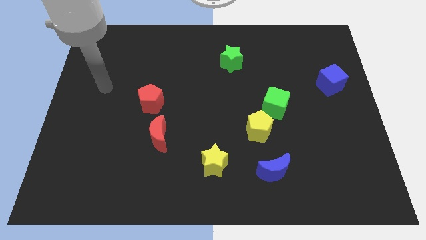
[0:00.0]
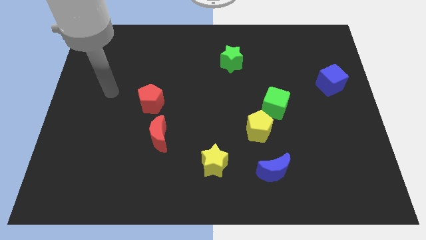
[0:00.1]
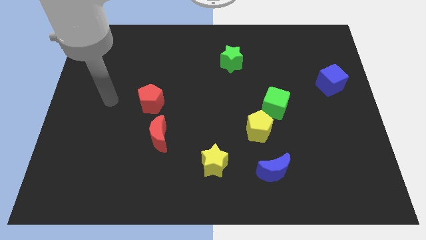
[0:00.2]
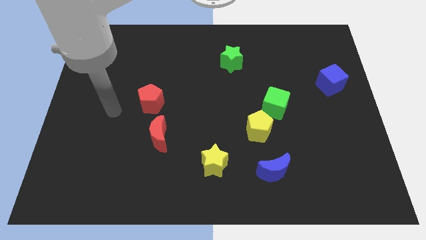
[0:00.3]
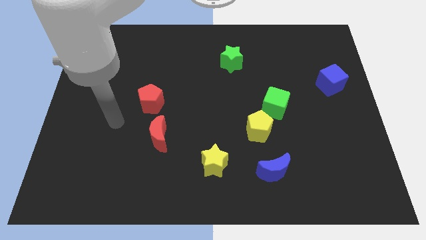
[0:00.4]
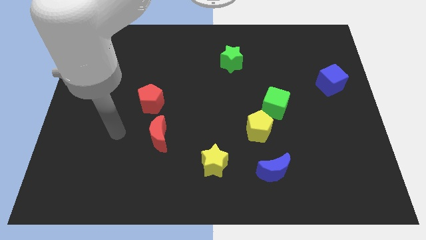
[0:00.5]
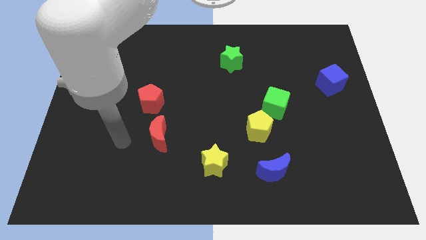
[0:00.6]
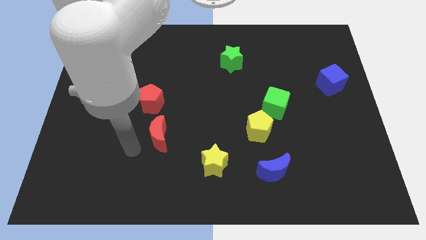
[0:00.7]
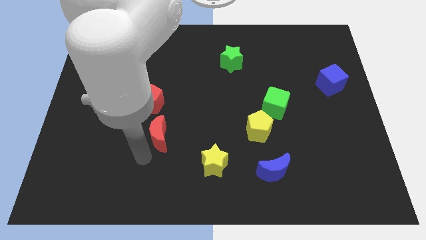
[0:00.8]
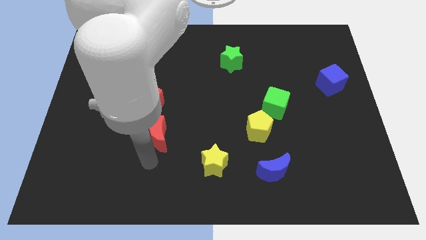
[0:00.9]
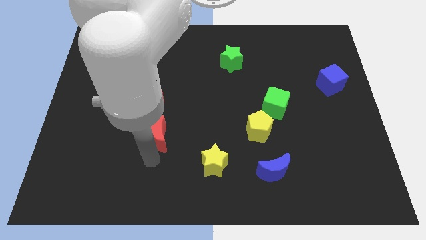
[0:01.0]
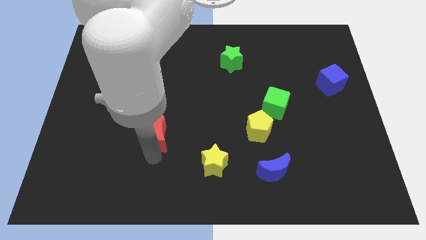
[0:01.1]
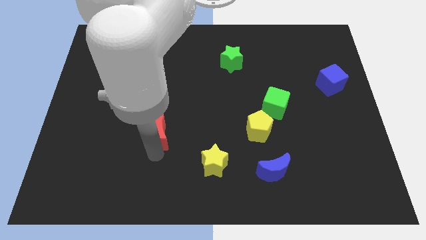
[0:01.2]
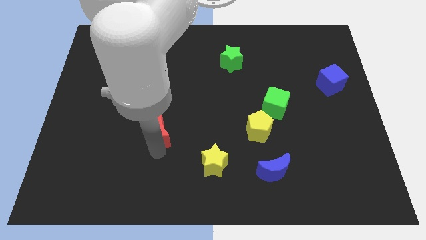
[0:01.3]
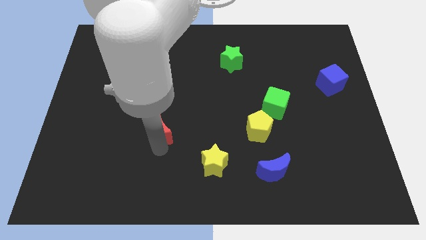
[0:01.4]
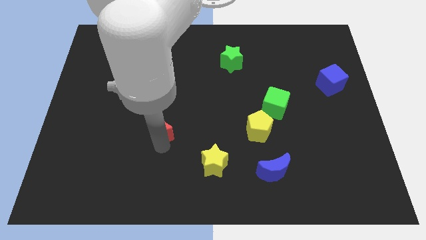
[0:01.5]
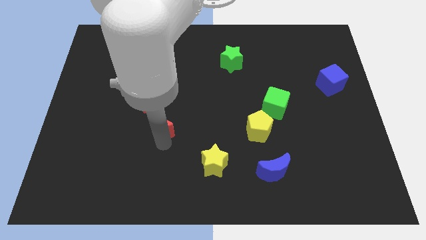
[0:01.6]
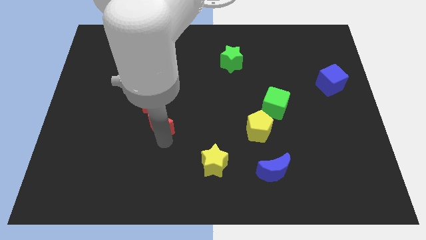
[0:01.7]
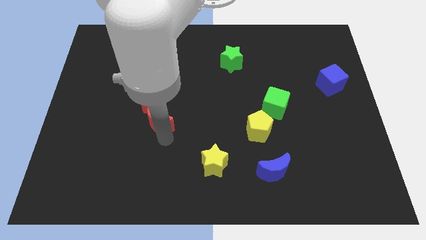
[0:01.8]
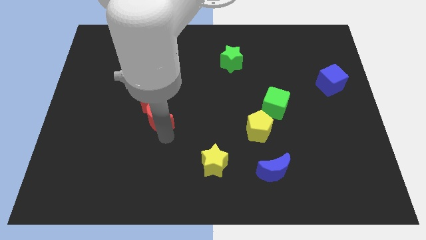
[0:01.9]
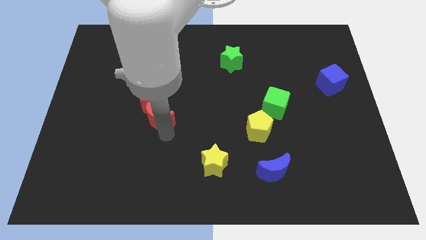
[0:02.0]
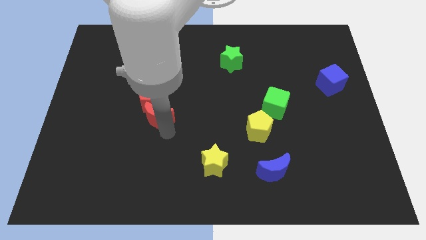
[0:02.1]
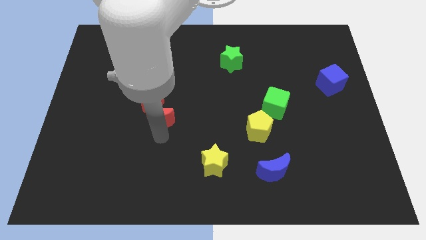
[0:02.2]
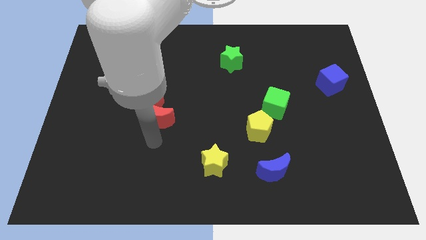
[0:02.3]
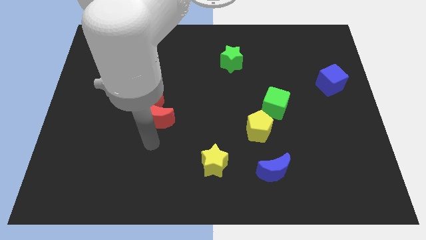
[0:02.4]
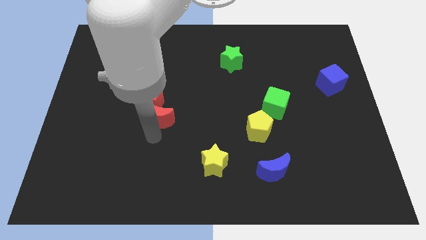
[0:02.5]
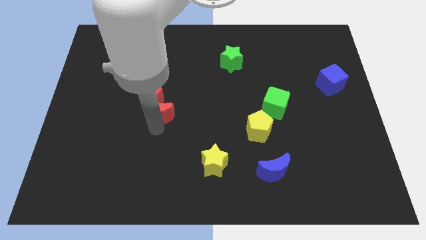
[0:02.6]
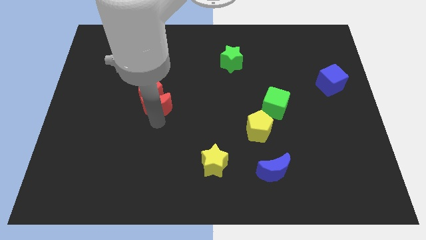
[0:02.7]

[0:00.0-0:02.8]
slide the red moon upwards slightly

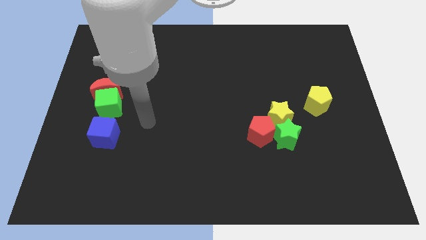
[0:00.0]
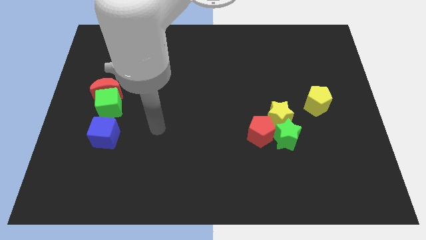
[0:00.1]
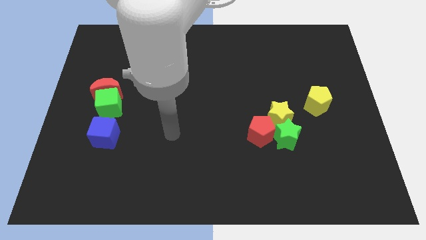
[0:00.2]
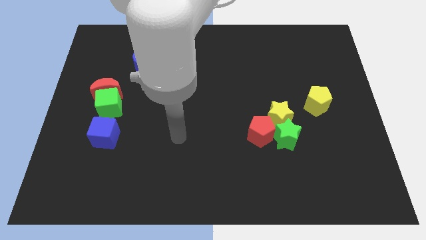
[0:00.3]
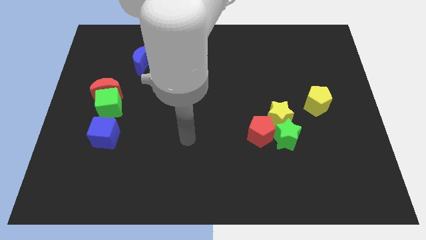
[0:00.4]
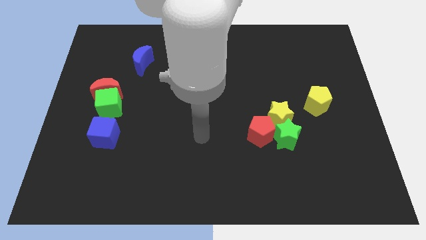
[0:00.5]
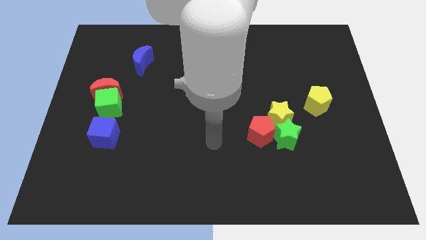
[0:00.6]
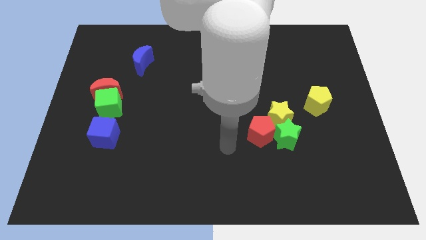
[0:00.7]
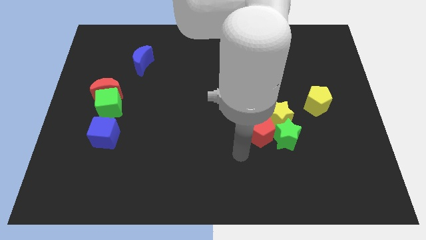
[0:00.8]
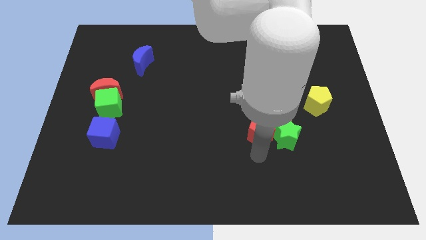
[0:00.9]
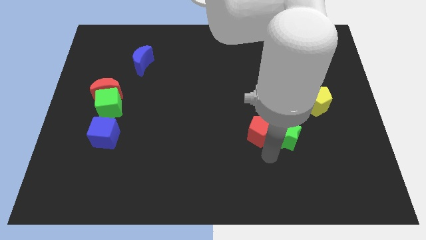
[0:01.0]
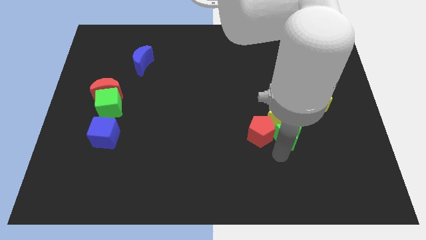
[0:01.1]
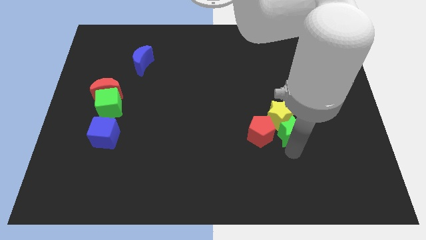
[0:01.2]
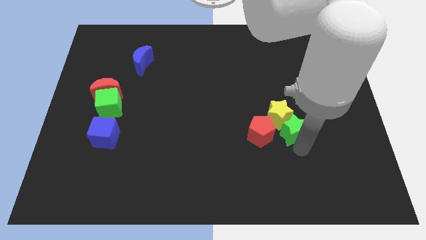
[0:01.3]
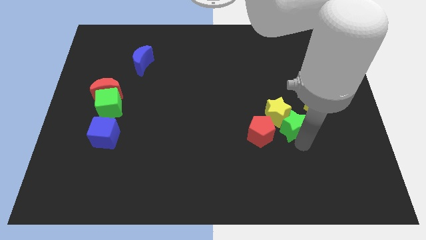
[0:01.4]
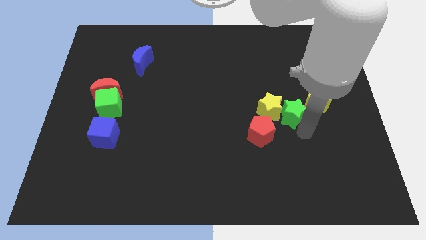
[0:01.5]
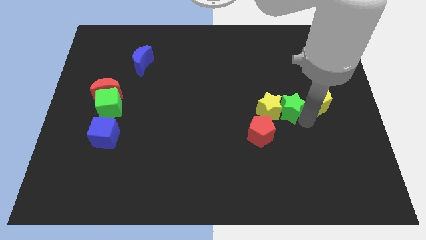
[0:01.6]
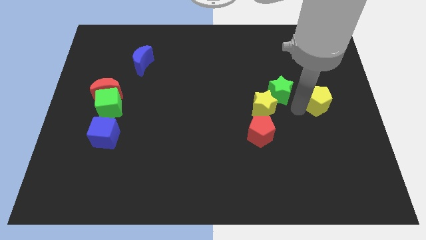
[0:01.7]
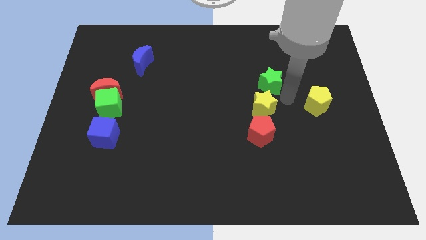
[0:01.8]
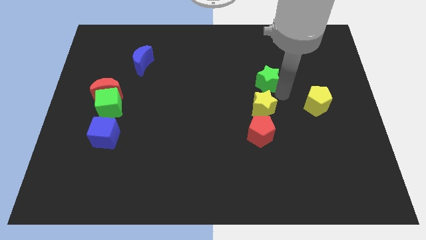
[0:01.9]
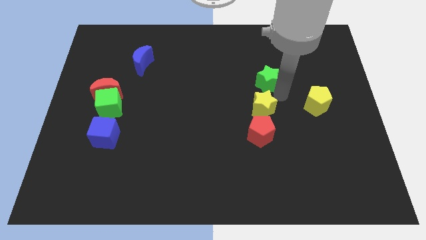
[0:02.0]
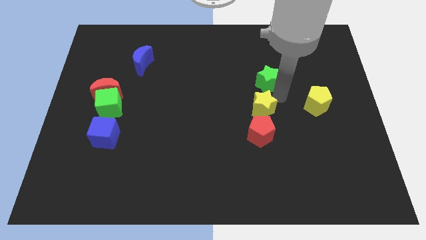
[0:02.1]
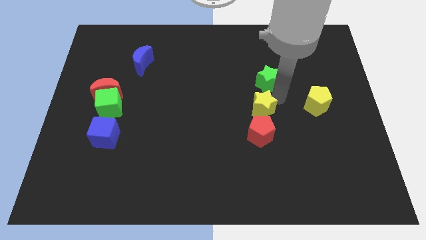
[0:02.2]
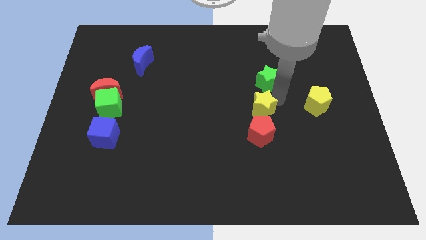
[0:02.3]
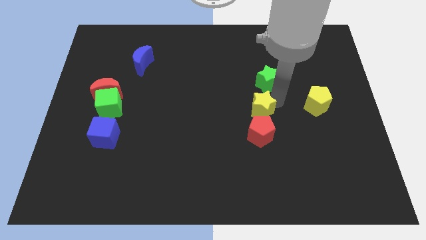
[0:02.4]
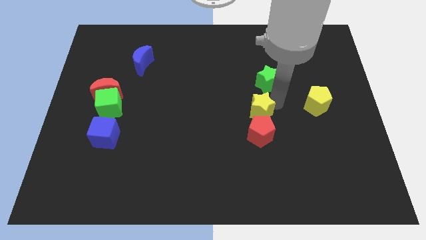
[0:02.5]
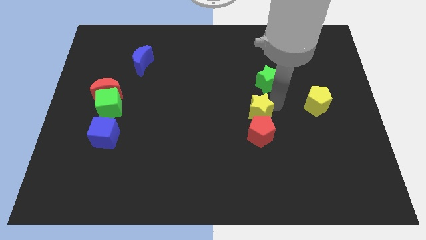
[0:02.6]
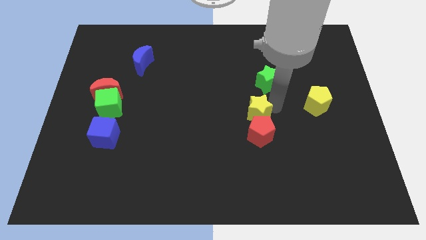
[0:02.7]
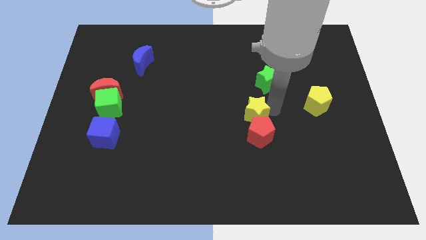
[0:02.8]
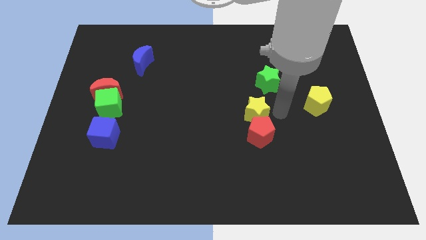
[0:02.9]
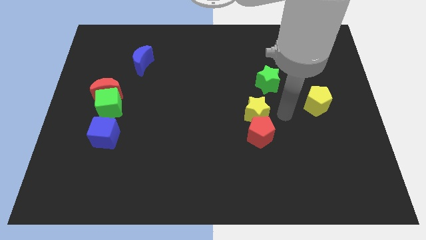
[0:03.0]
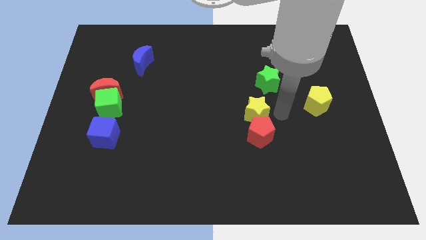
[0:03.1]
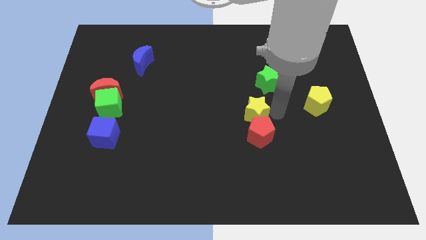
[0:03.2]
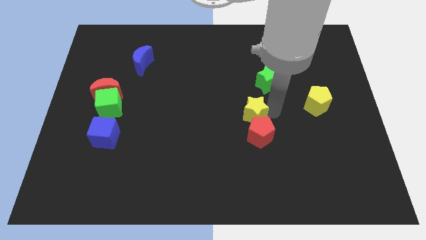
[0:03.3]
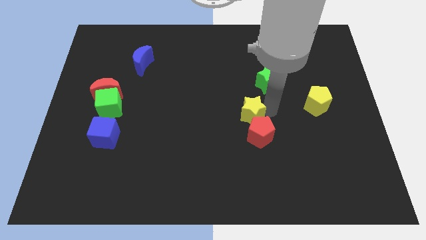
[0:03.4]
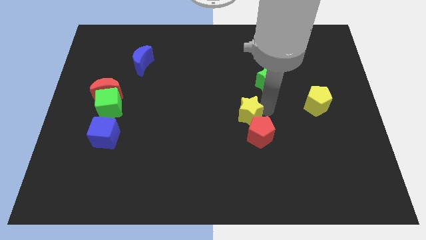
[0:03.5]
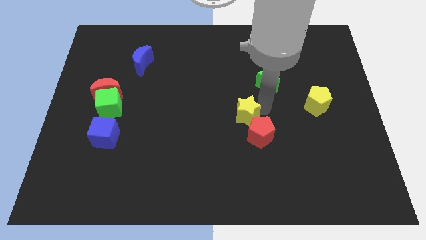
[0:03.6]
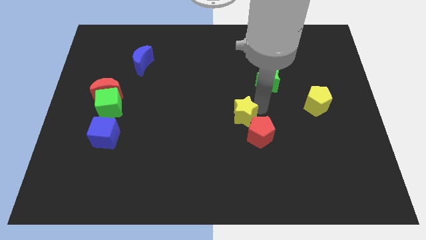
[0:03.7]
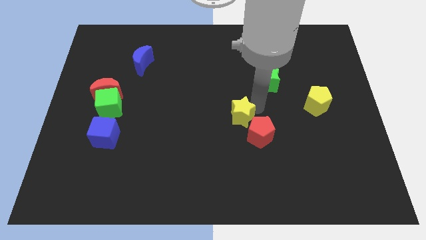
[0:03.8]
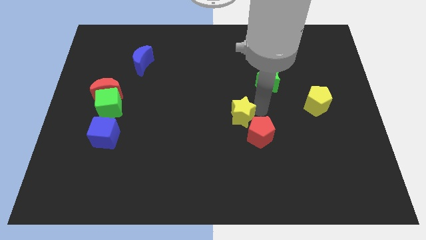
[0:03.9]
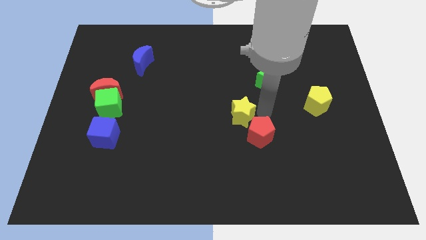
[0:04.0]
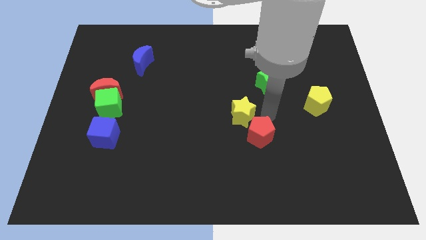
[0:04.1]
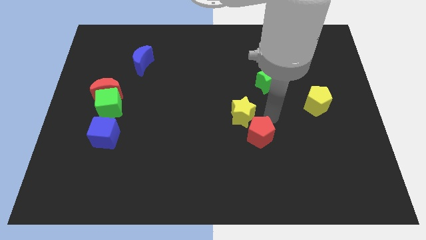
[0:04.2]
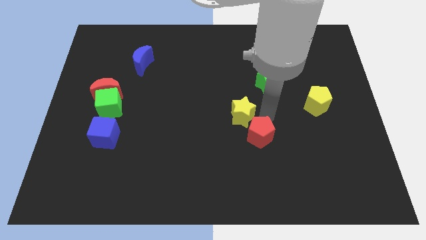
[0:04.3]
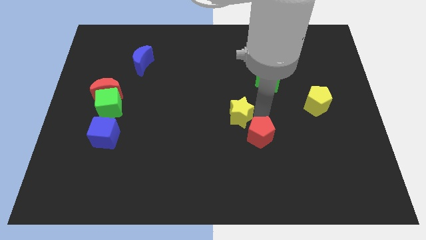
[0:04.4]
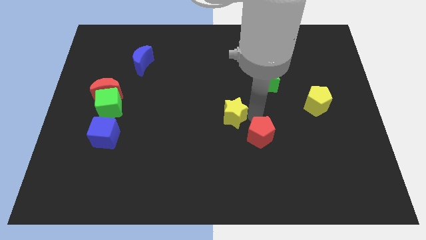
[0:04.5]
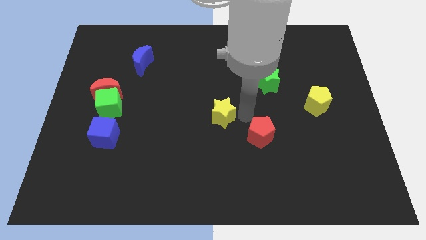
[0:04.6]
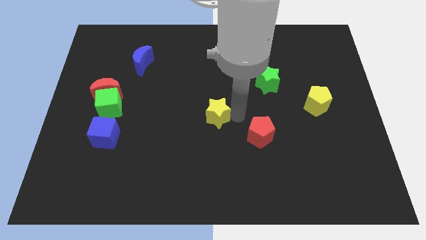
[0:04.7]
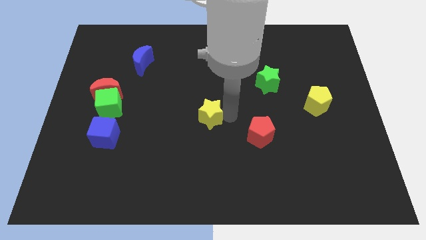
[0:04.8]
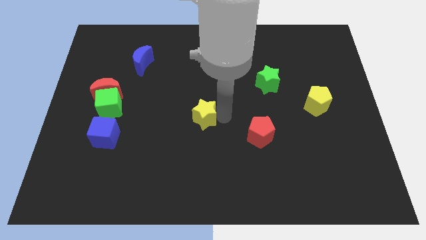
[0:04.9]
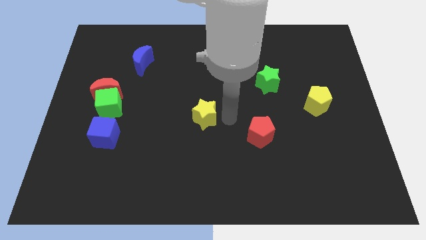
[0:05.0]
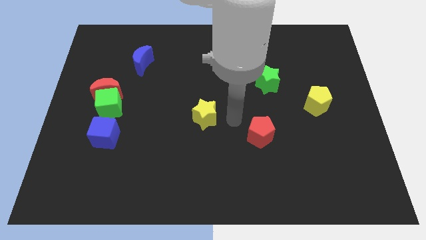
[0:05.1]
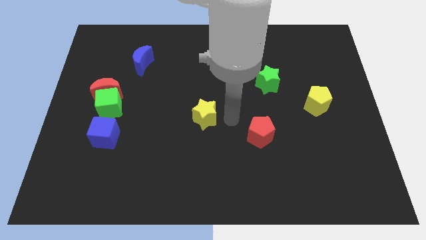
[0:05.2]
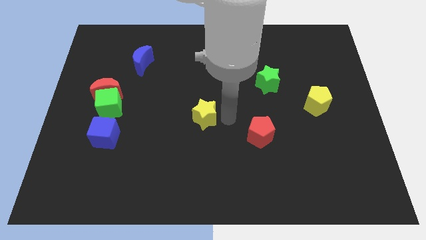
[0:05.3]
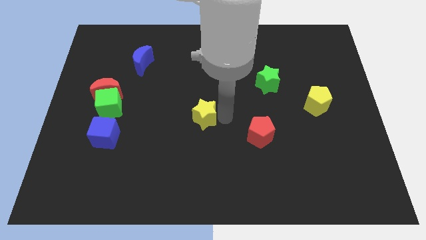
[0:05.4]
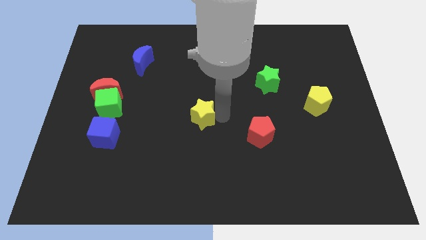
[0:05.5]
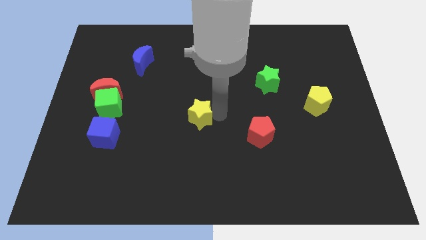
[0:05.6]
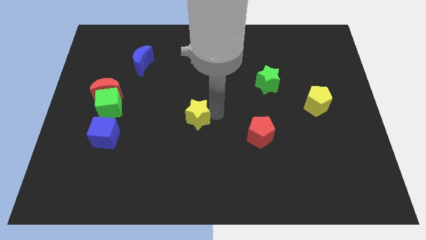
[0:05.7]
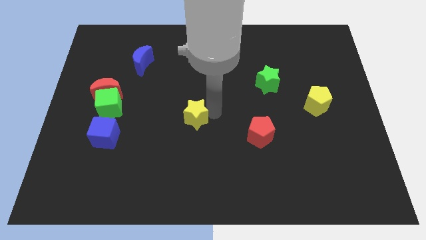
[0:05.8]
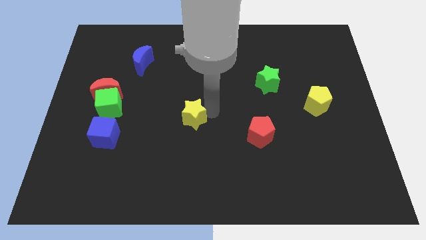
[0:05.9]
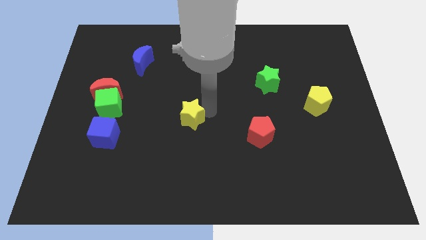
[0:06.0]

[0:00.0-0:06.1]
slide the yellow star left
